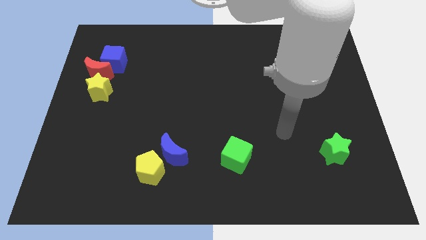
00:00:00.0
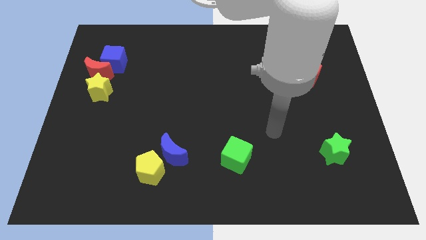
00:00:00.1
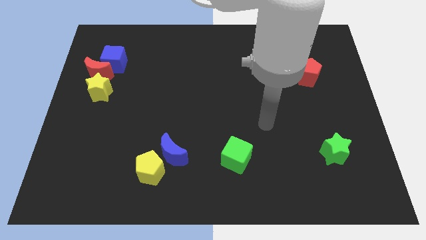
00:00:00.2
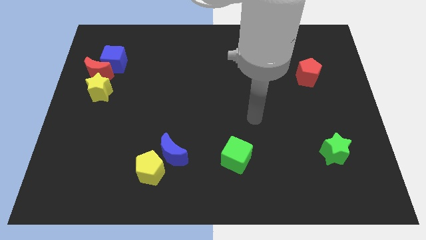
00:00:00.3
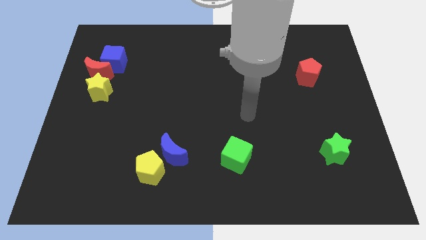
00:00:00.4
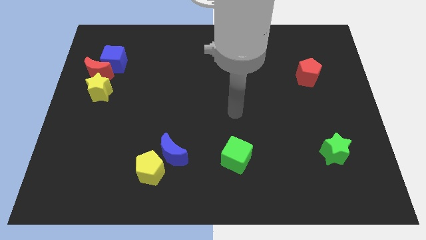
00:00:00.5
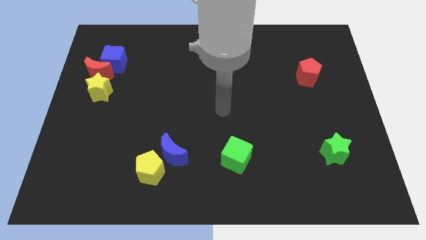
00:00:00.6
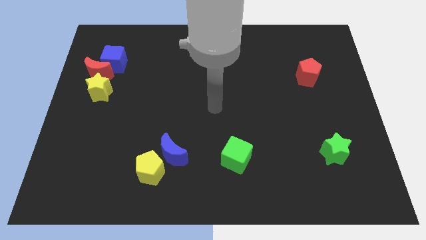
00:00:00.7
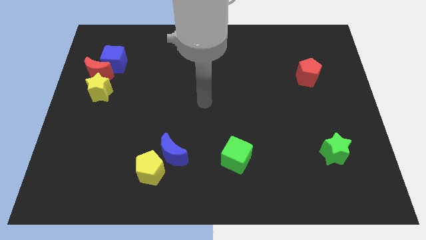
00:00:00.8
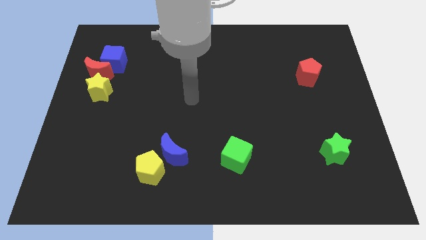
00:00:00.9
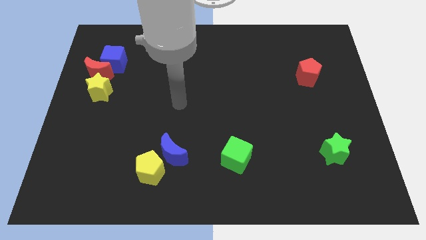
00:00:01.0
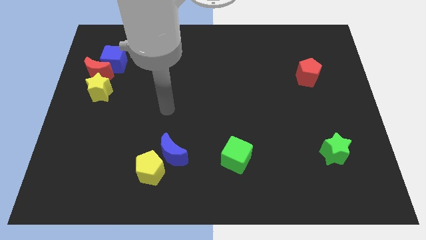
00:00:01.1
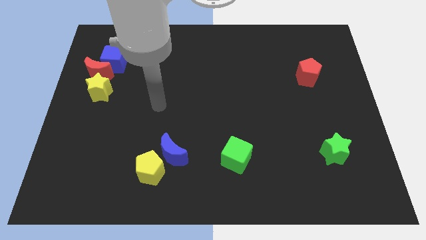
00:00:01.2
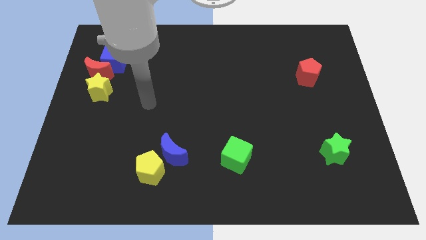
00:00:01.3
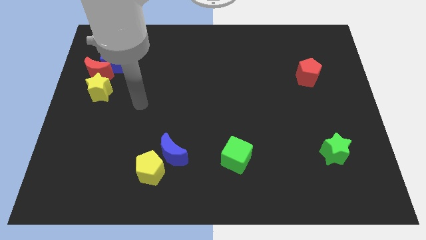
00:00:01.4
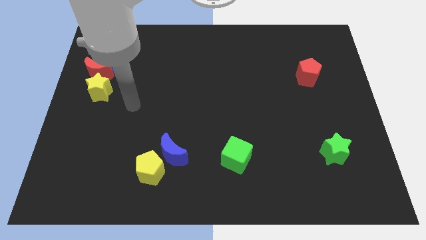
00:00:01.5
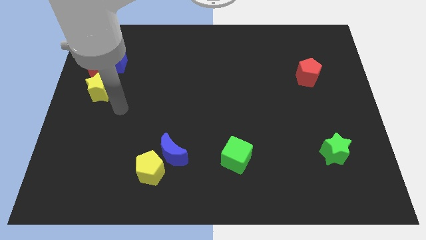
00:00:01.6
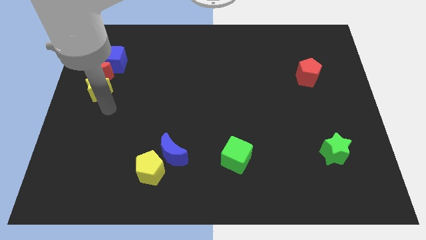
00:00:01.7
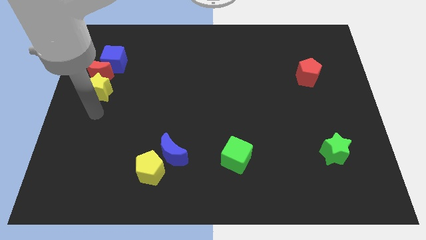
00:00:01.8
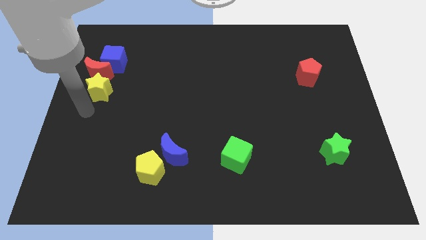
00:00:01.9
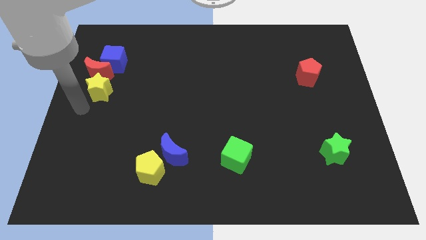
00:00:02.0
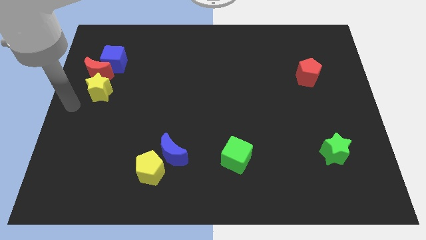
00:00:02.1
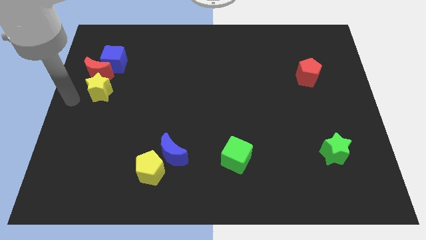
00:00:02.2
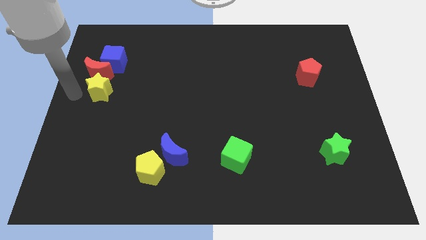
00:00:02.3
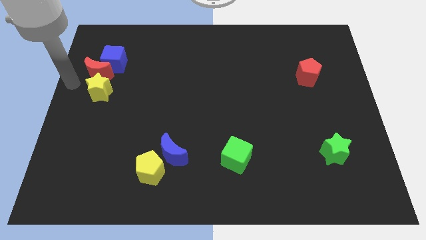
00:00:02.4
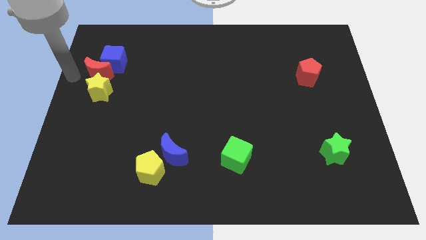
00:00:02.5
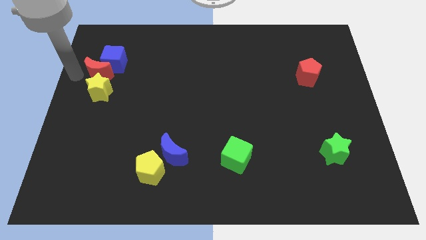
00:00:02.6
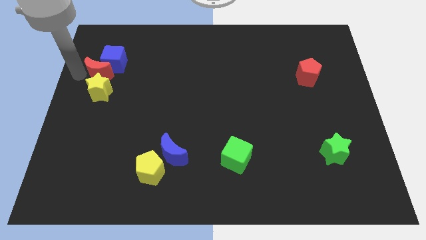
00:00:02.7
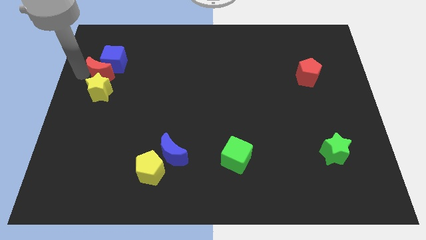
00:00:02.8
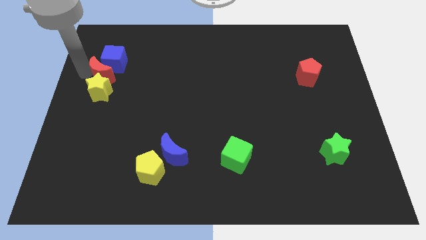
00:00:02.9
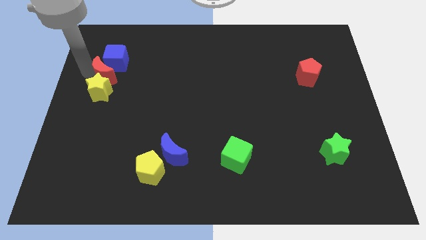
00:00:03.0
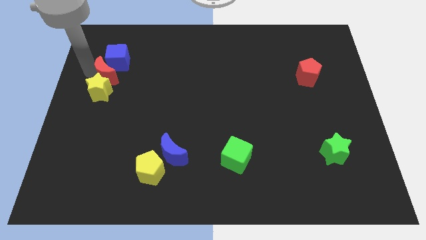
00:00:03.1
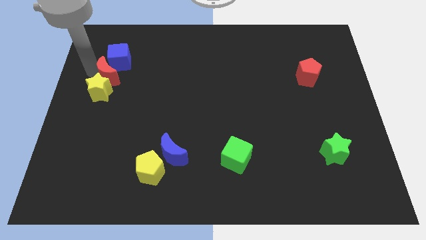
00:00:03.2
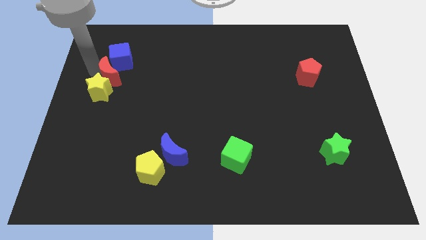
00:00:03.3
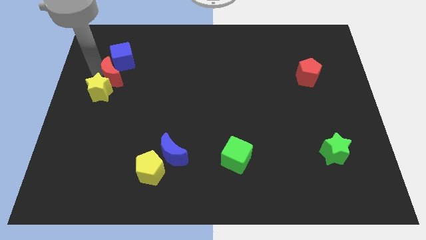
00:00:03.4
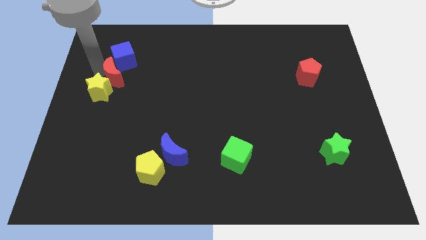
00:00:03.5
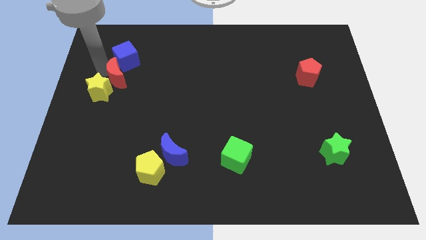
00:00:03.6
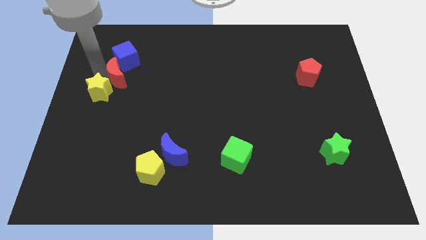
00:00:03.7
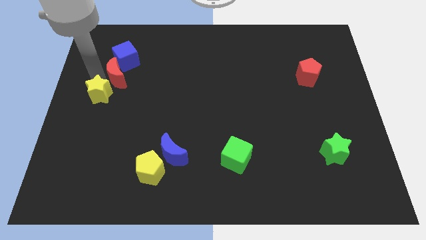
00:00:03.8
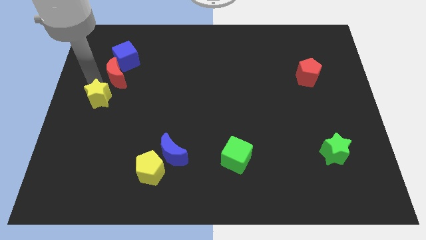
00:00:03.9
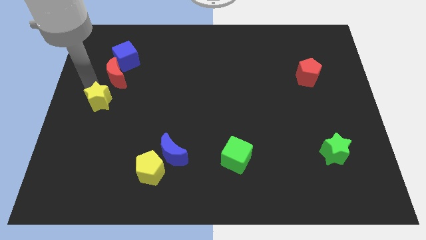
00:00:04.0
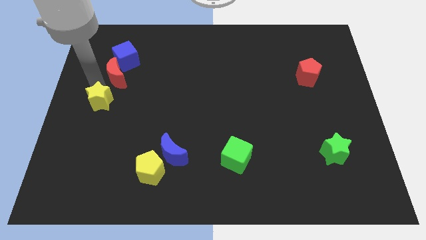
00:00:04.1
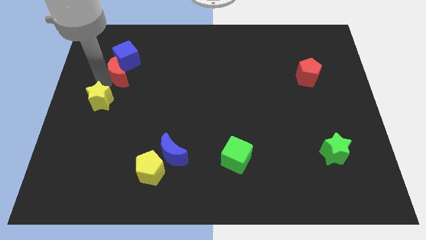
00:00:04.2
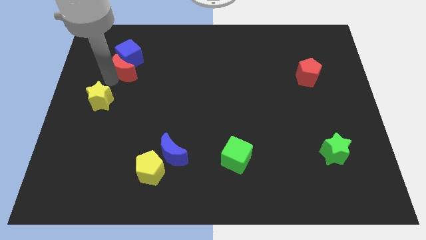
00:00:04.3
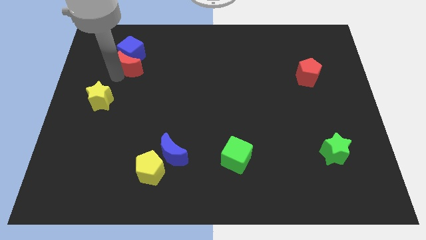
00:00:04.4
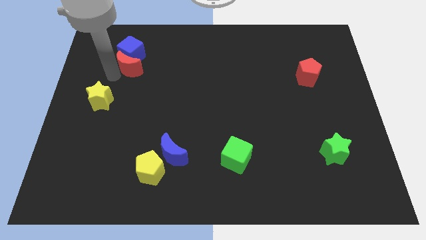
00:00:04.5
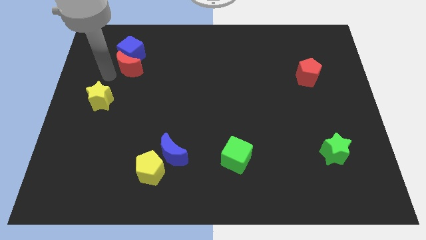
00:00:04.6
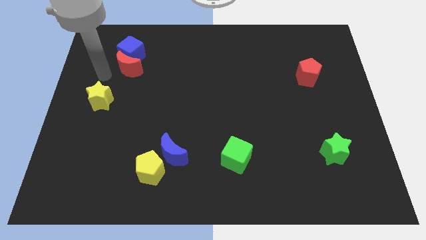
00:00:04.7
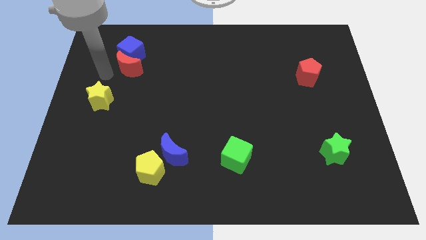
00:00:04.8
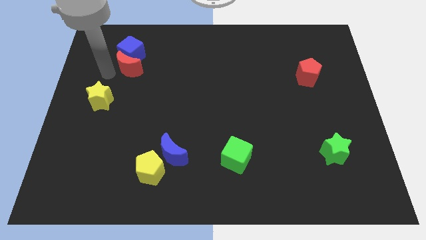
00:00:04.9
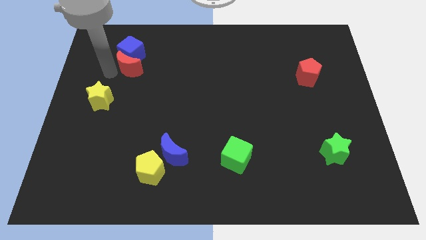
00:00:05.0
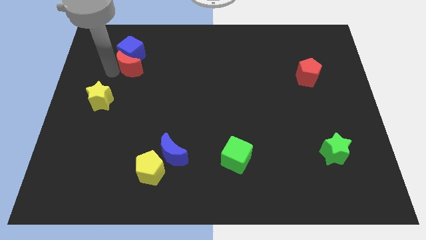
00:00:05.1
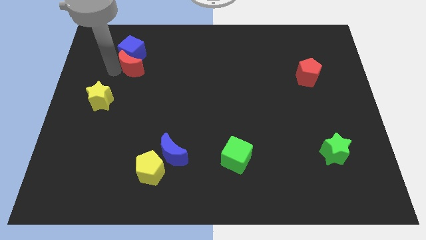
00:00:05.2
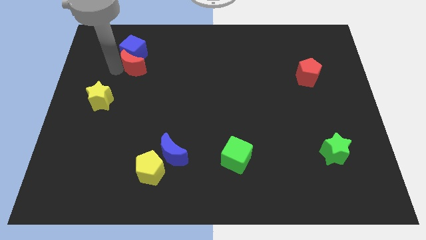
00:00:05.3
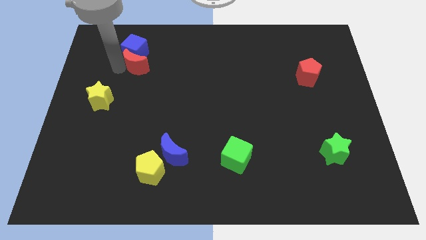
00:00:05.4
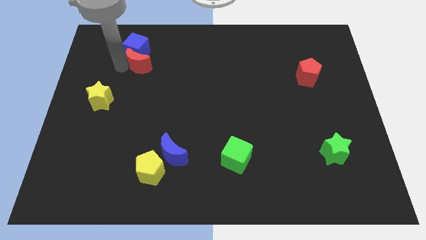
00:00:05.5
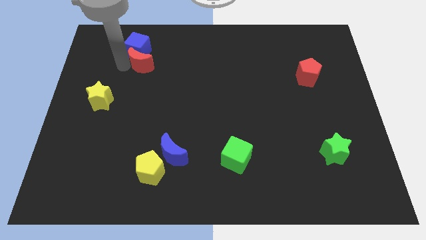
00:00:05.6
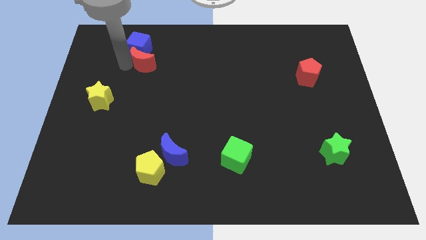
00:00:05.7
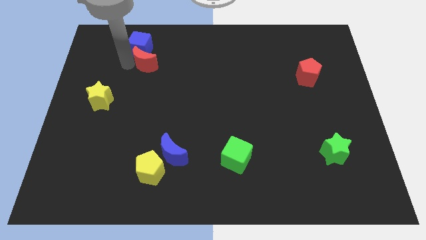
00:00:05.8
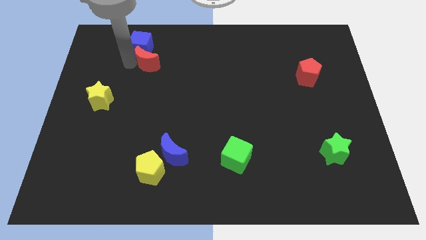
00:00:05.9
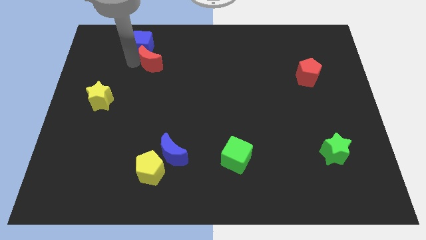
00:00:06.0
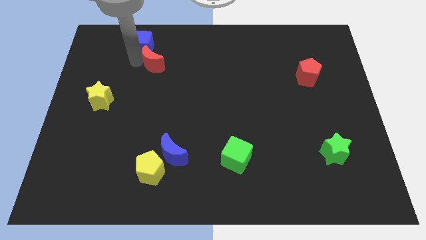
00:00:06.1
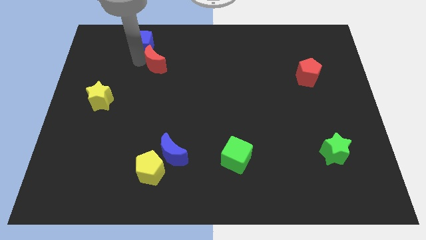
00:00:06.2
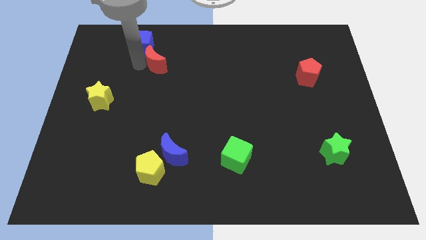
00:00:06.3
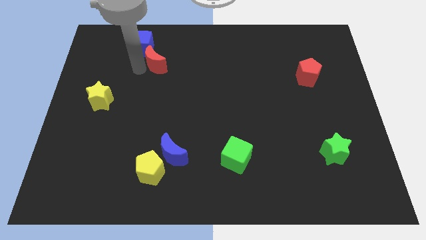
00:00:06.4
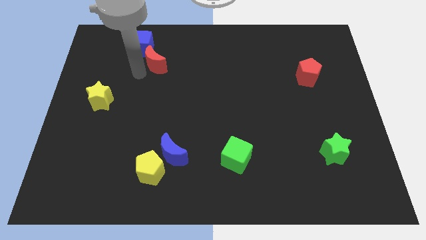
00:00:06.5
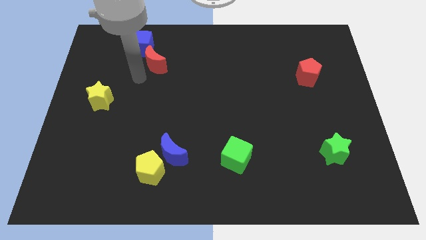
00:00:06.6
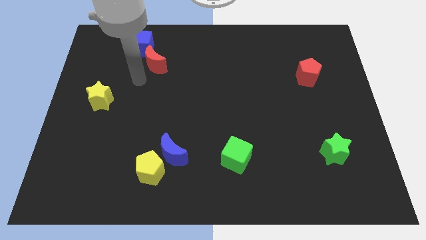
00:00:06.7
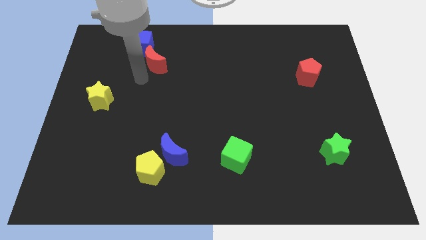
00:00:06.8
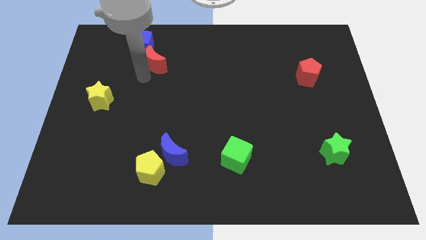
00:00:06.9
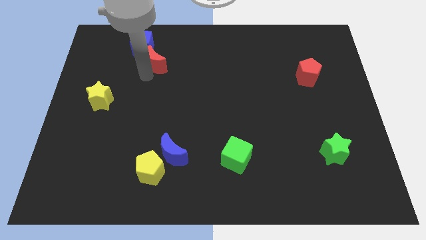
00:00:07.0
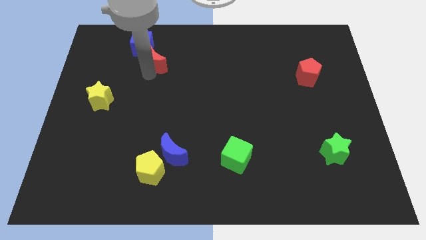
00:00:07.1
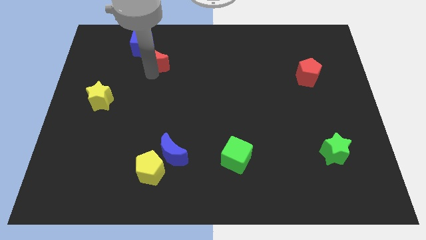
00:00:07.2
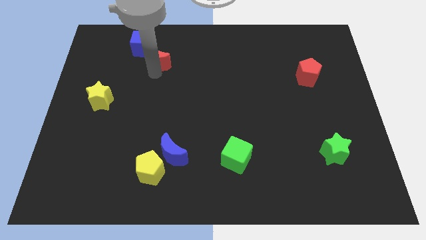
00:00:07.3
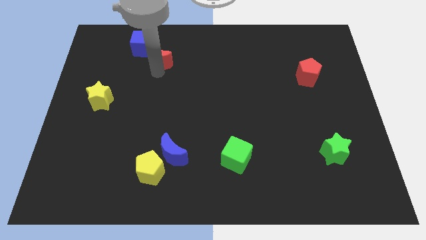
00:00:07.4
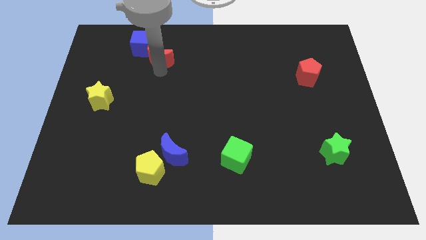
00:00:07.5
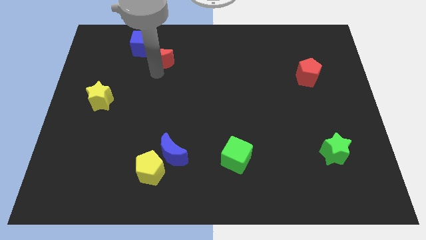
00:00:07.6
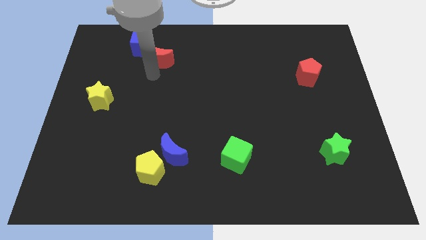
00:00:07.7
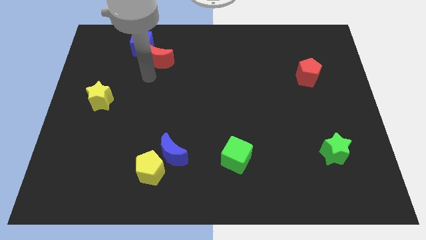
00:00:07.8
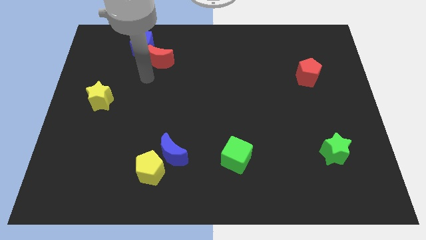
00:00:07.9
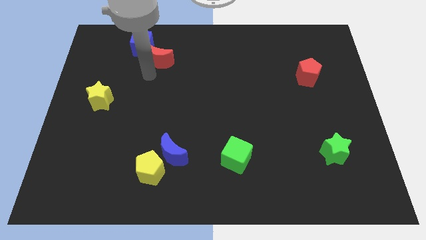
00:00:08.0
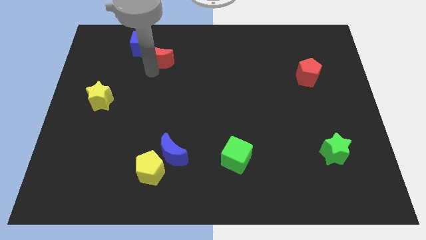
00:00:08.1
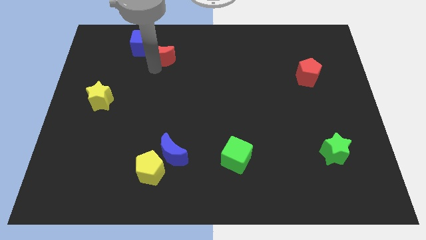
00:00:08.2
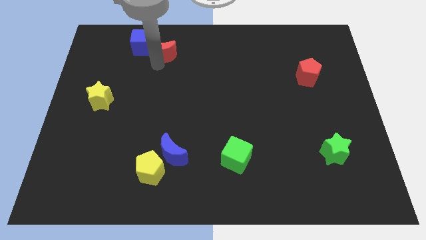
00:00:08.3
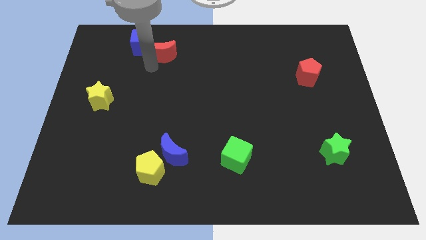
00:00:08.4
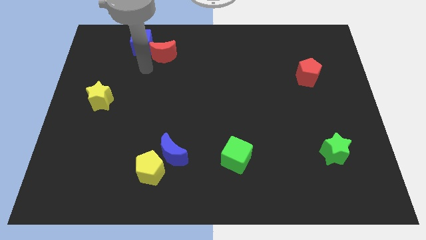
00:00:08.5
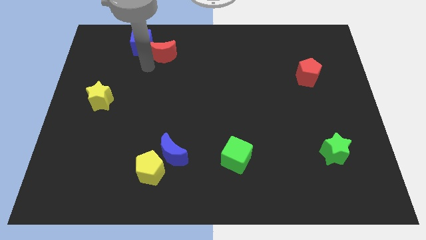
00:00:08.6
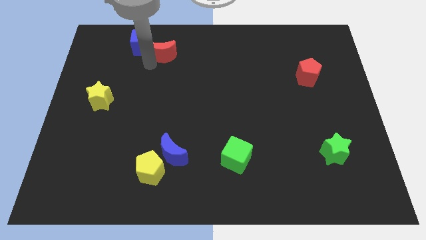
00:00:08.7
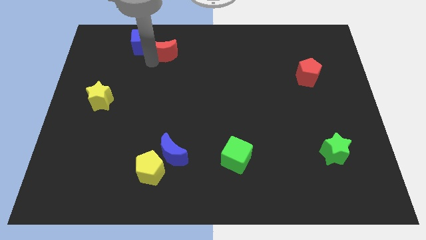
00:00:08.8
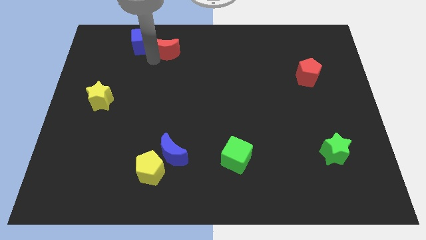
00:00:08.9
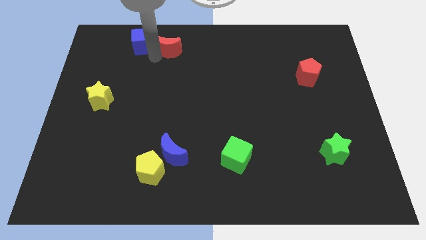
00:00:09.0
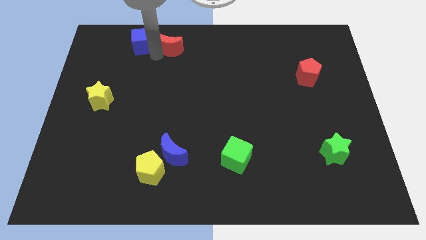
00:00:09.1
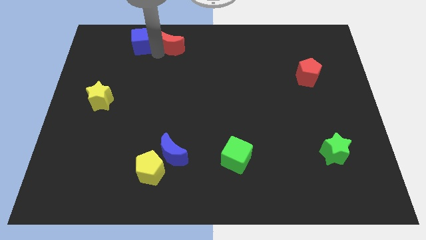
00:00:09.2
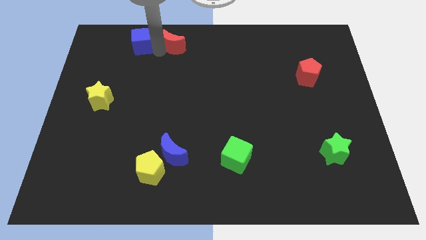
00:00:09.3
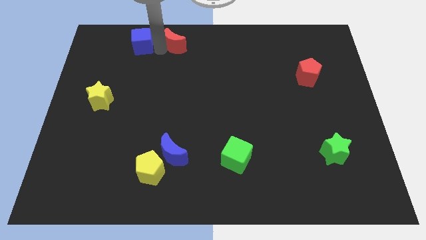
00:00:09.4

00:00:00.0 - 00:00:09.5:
move the red moon to the top side
